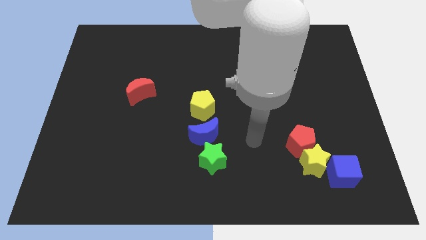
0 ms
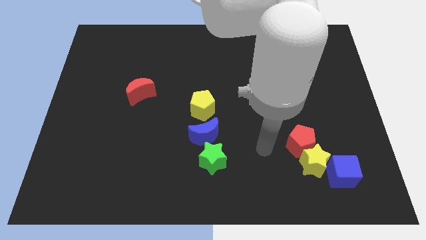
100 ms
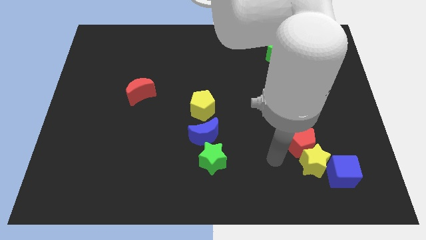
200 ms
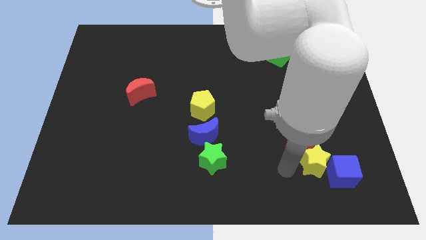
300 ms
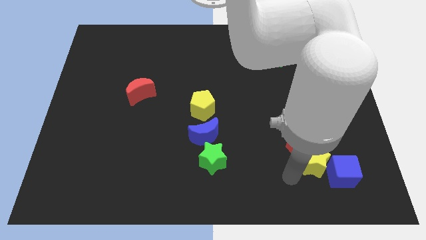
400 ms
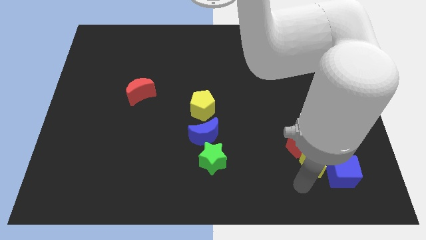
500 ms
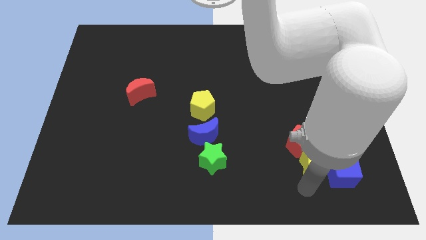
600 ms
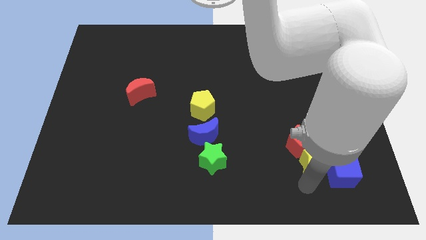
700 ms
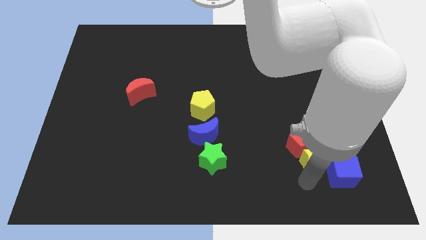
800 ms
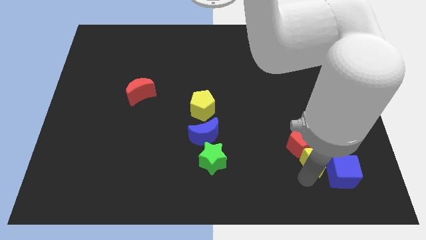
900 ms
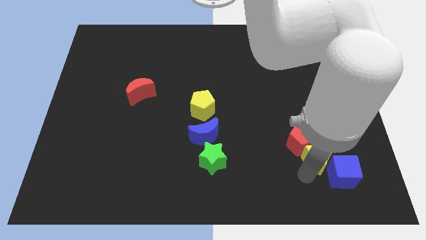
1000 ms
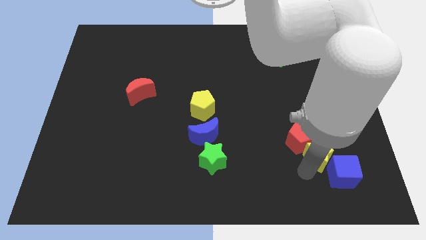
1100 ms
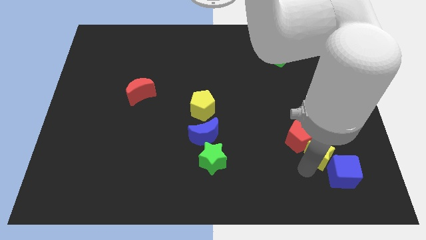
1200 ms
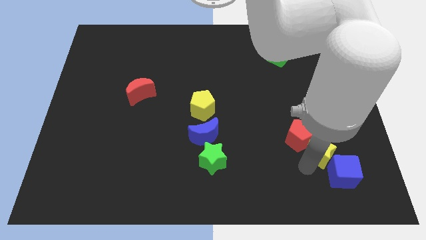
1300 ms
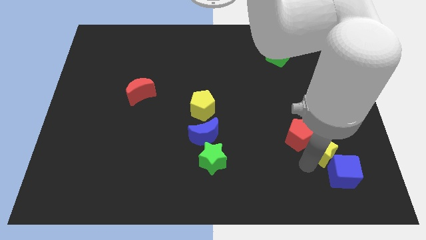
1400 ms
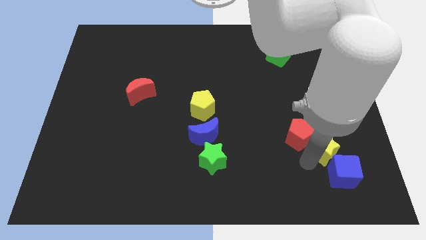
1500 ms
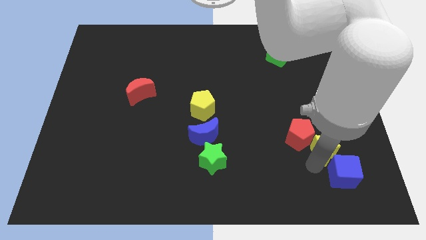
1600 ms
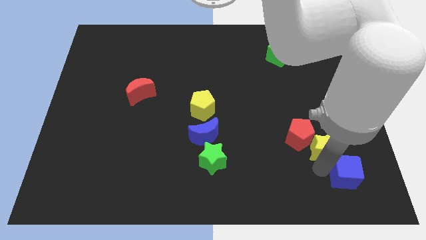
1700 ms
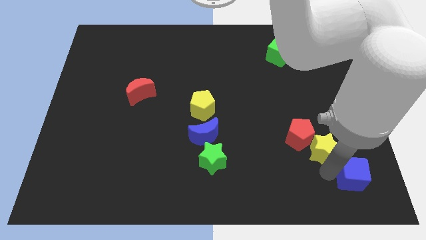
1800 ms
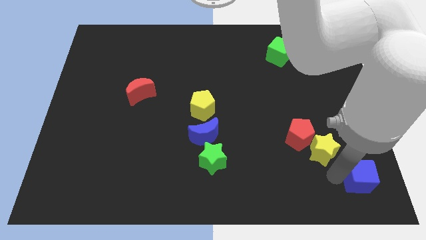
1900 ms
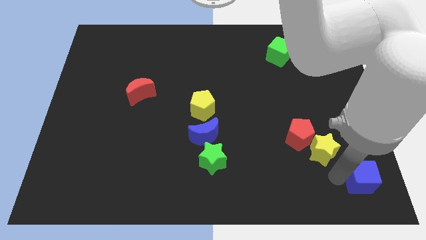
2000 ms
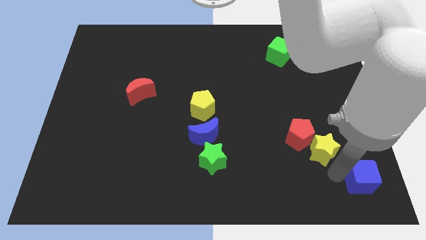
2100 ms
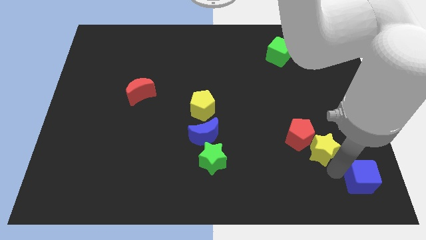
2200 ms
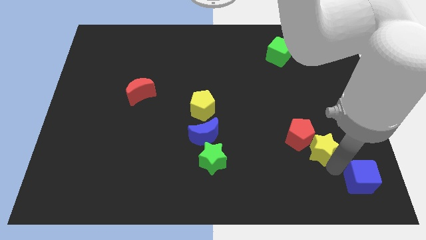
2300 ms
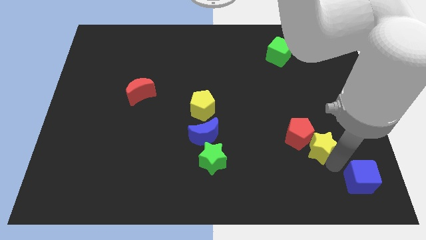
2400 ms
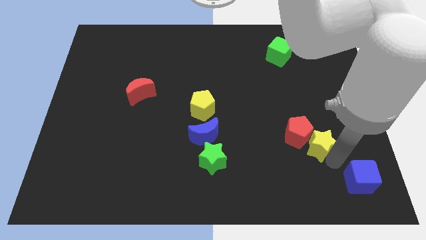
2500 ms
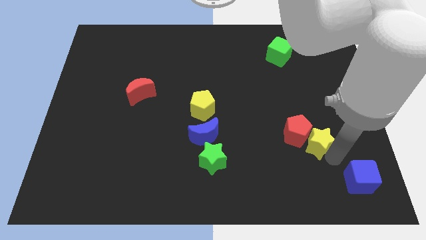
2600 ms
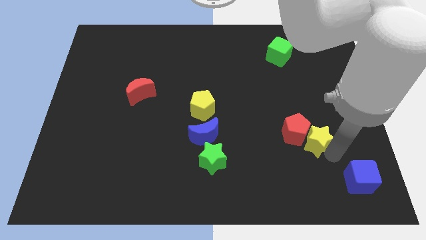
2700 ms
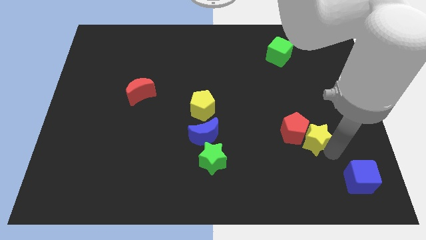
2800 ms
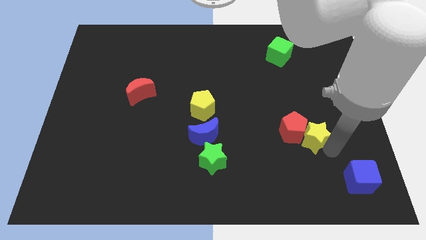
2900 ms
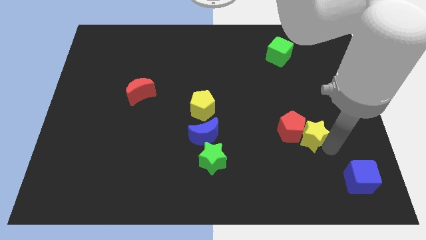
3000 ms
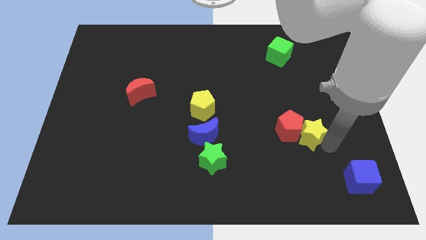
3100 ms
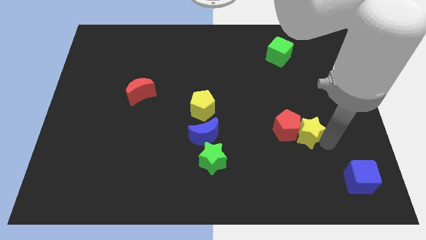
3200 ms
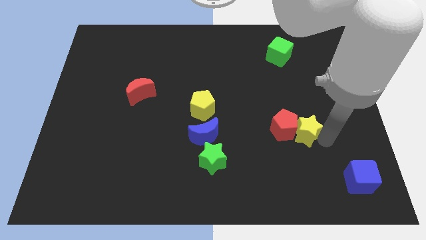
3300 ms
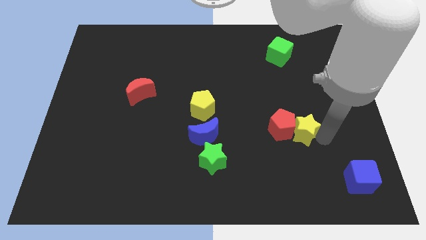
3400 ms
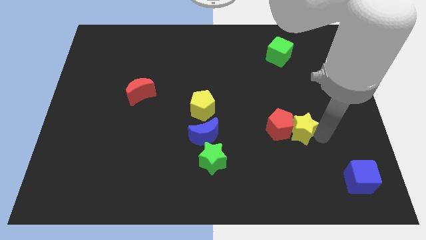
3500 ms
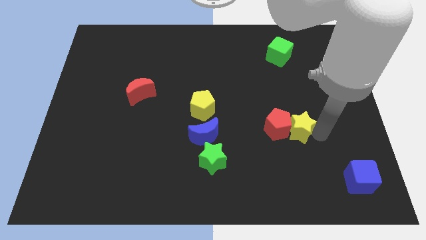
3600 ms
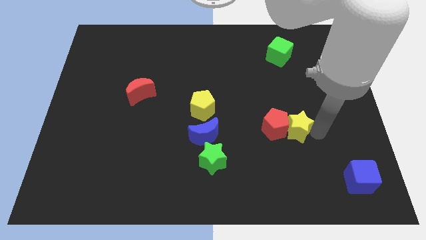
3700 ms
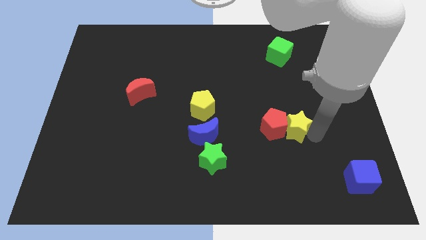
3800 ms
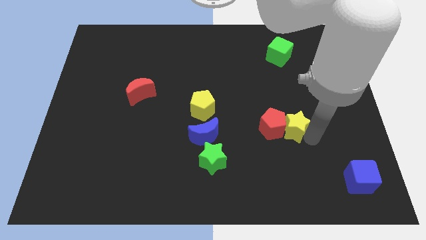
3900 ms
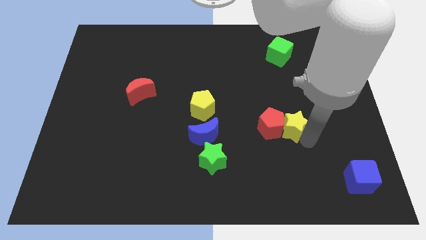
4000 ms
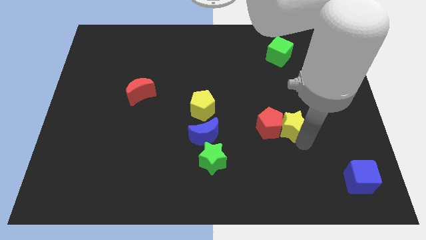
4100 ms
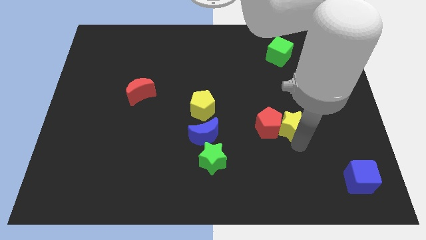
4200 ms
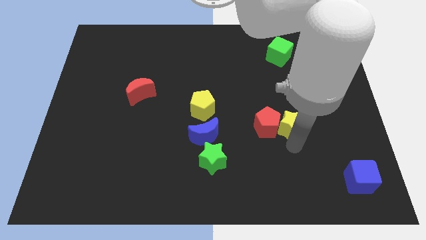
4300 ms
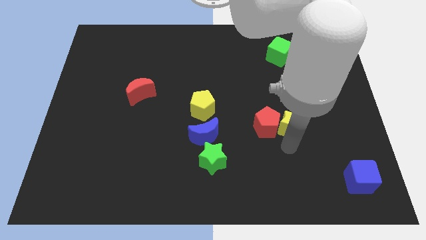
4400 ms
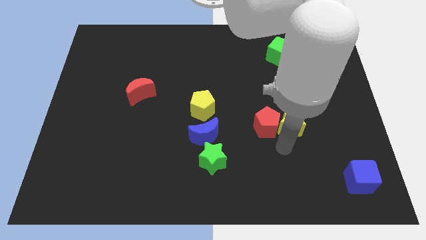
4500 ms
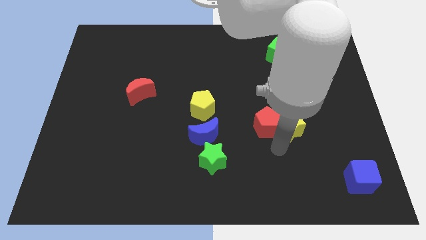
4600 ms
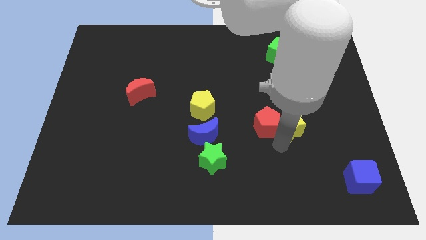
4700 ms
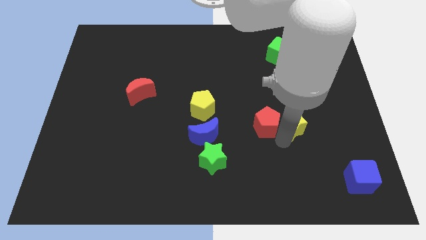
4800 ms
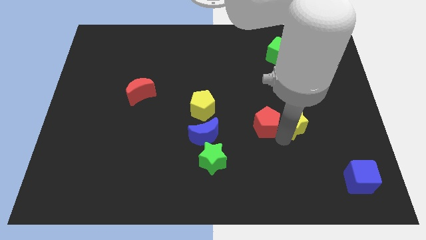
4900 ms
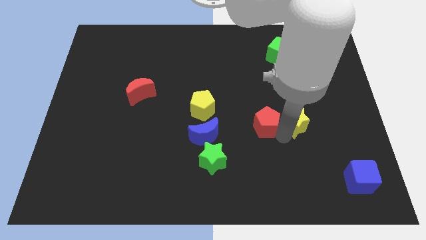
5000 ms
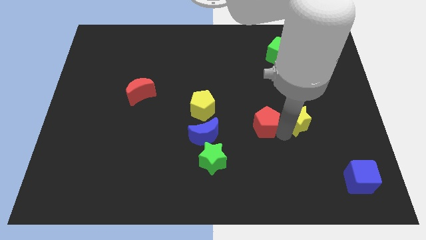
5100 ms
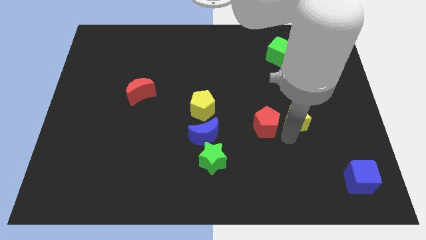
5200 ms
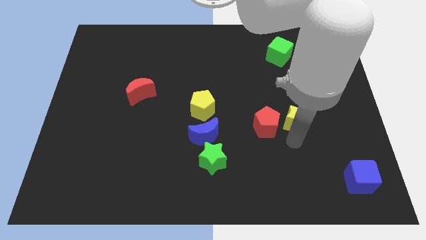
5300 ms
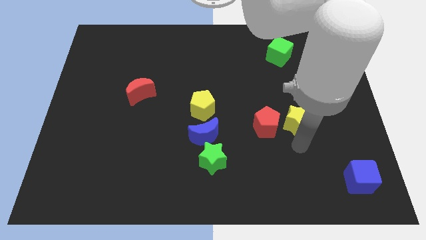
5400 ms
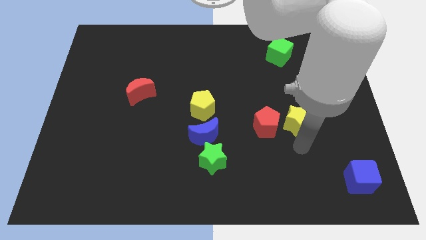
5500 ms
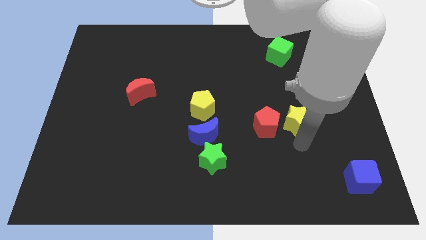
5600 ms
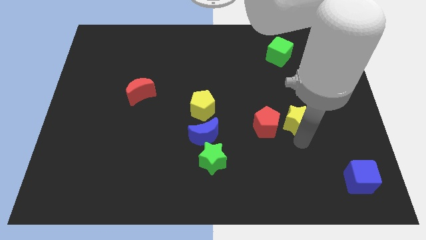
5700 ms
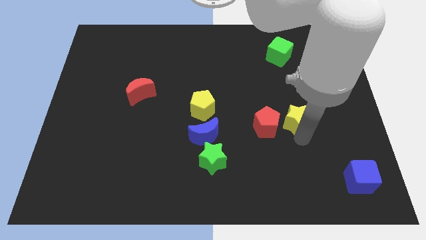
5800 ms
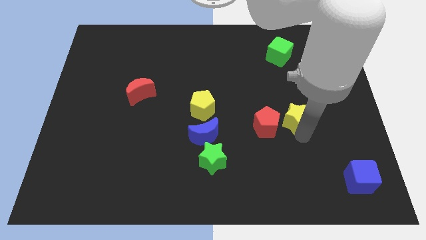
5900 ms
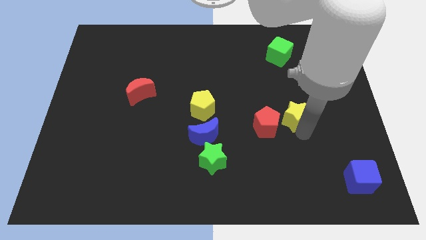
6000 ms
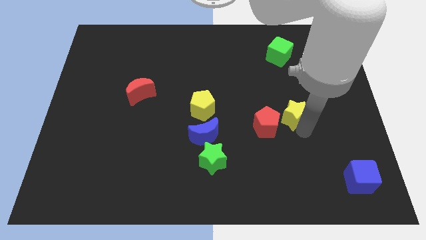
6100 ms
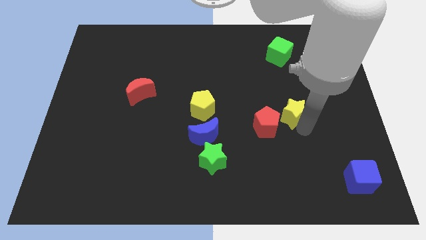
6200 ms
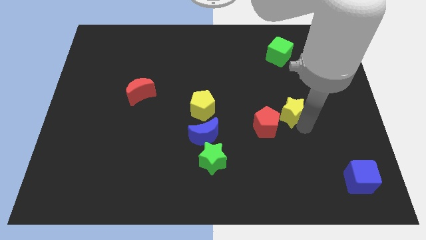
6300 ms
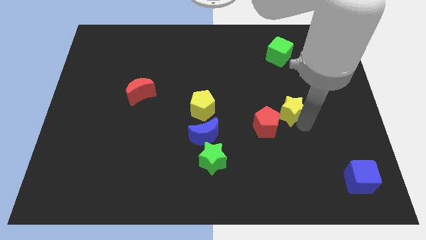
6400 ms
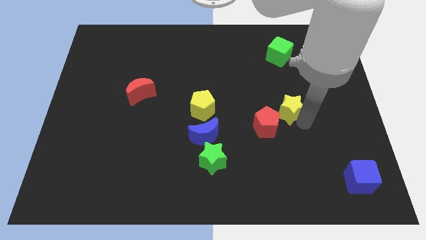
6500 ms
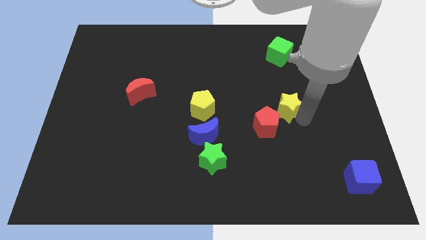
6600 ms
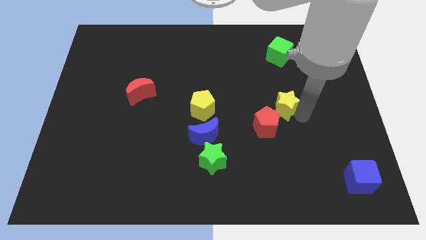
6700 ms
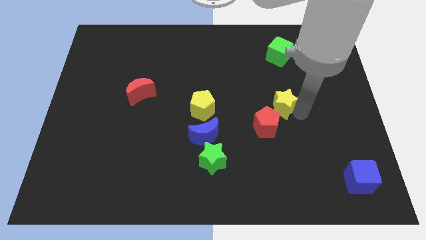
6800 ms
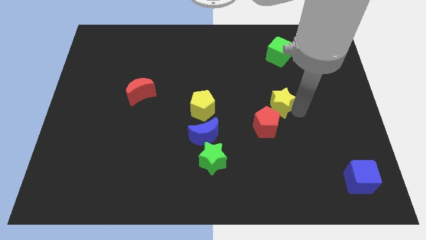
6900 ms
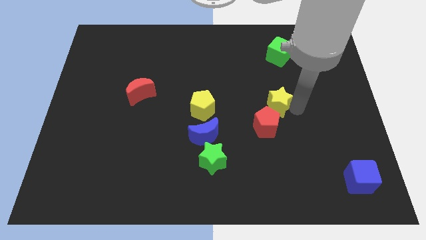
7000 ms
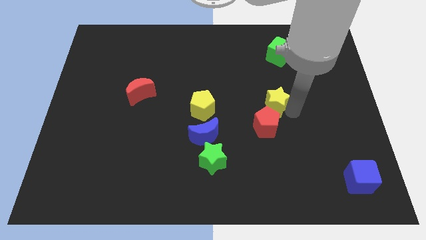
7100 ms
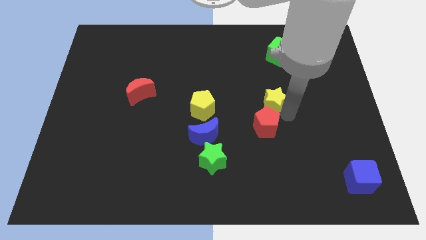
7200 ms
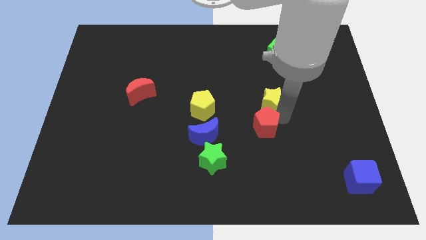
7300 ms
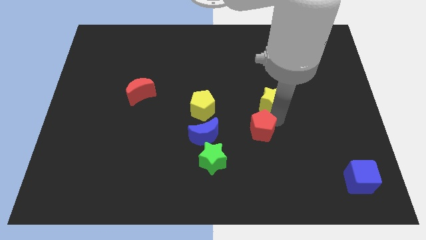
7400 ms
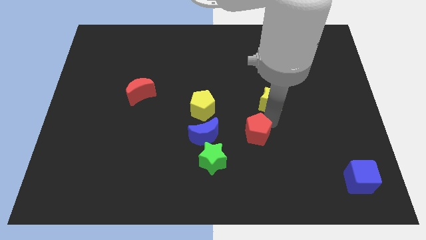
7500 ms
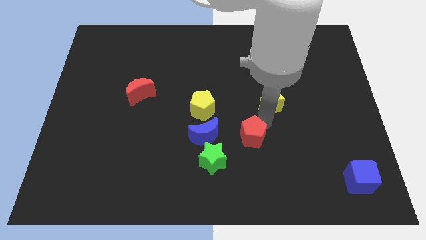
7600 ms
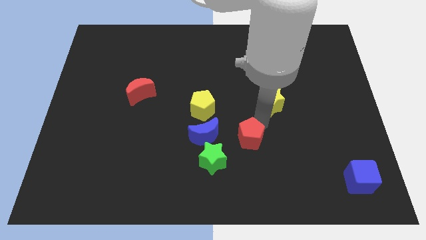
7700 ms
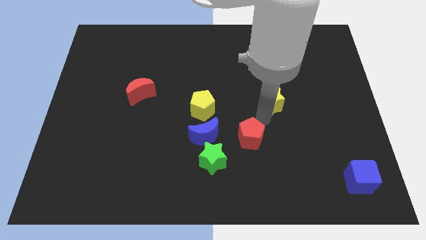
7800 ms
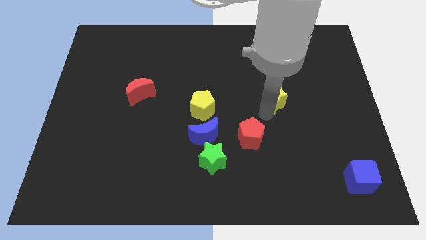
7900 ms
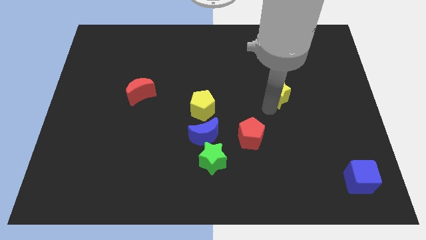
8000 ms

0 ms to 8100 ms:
put the yellow star to the bottom of the green cube
